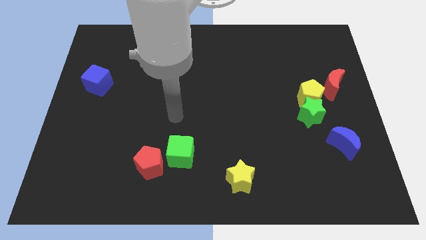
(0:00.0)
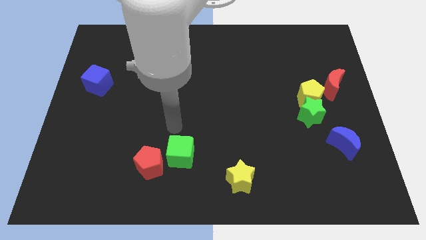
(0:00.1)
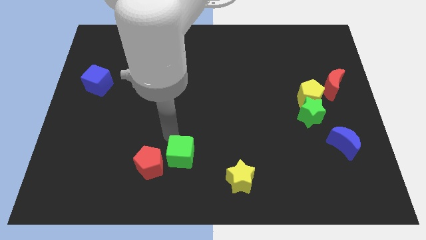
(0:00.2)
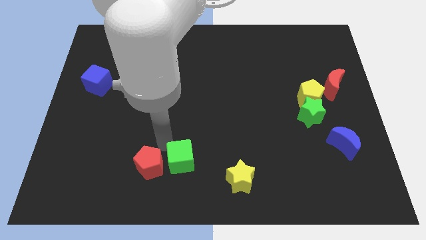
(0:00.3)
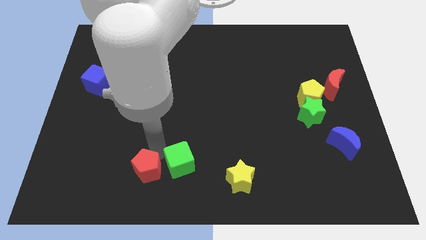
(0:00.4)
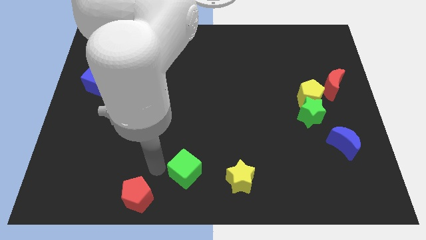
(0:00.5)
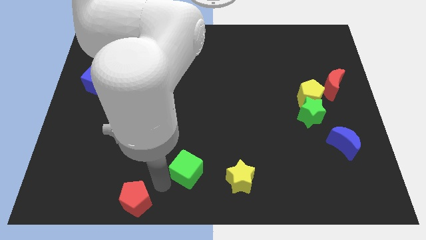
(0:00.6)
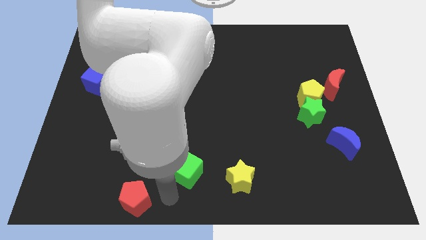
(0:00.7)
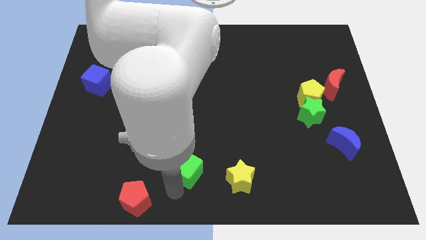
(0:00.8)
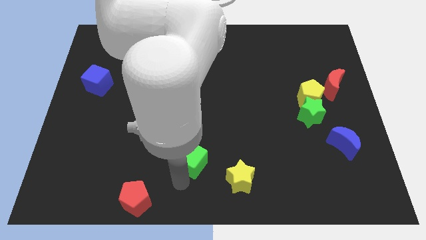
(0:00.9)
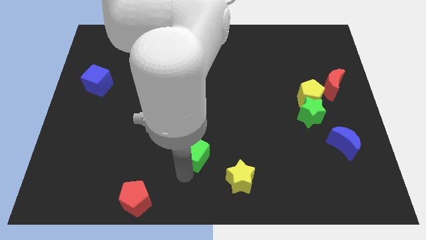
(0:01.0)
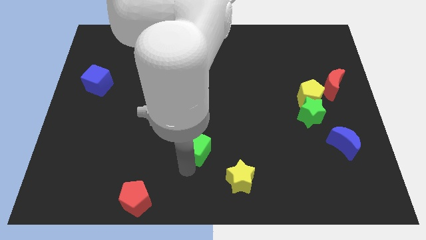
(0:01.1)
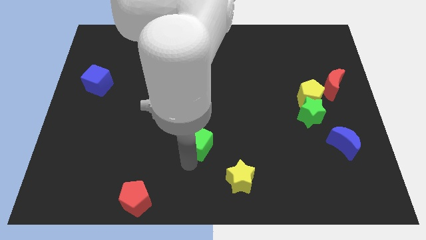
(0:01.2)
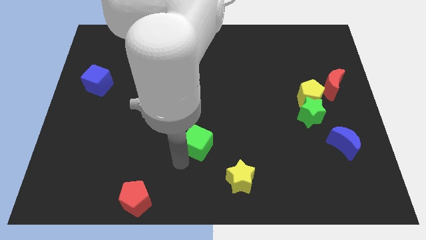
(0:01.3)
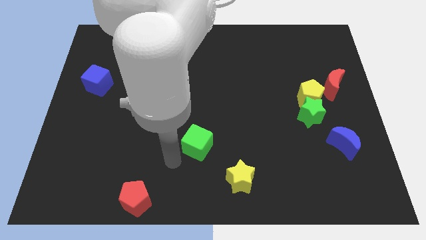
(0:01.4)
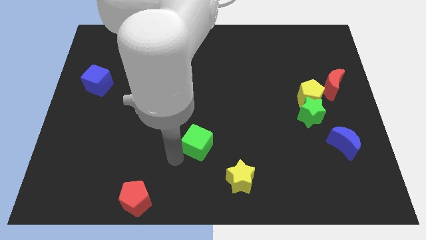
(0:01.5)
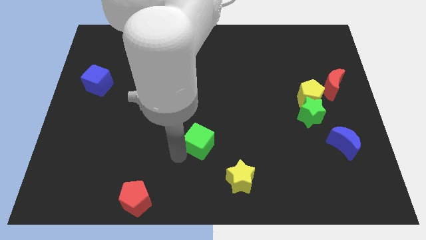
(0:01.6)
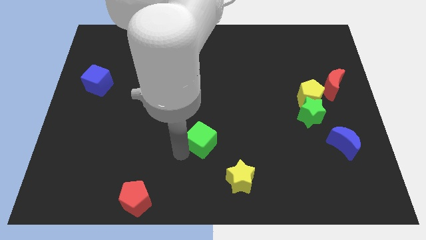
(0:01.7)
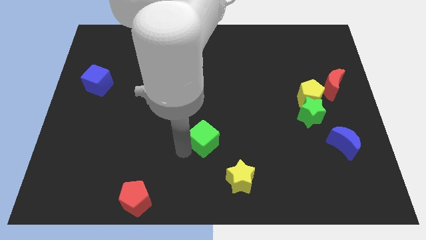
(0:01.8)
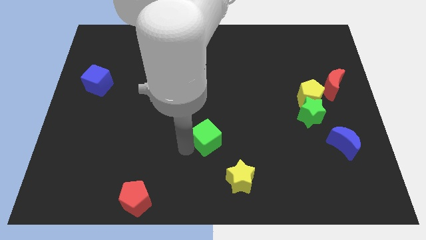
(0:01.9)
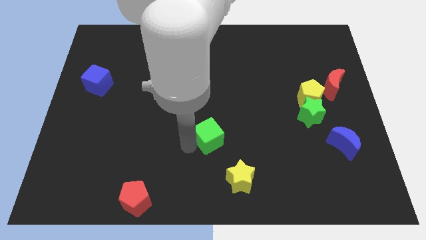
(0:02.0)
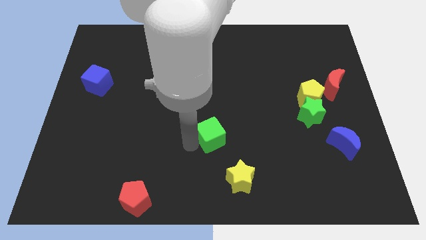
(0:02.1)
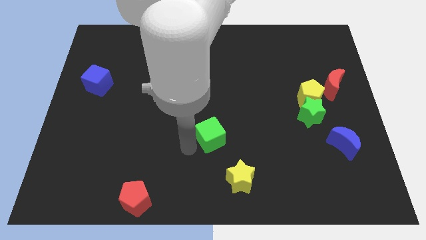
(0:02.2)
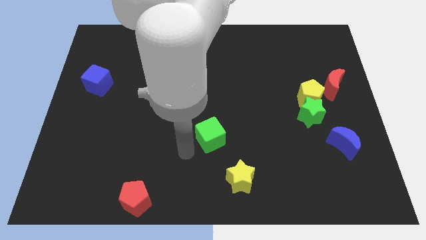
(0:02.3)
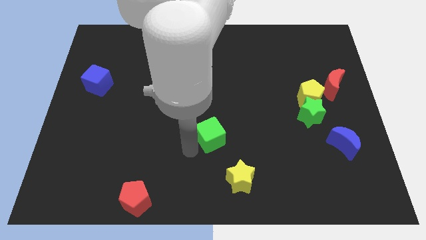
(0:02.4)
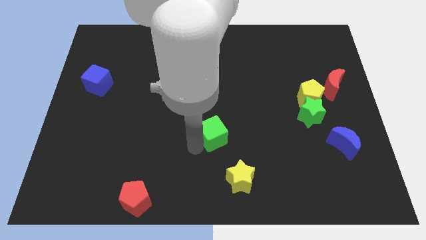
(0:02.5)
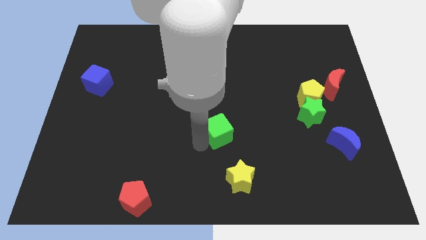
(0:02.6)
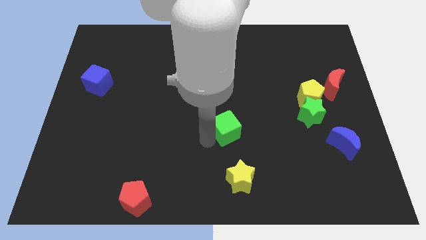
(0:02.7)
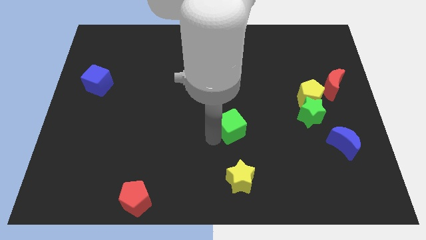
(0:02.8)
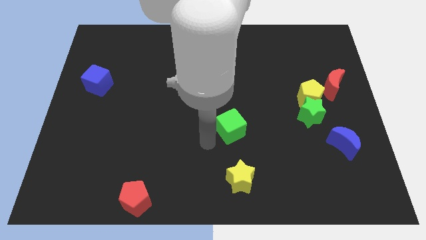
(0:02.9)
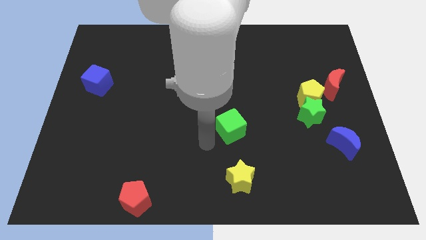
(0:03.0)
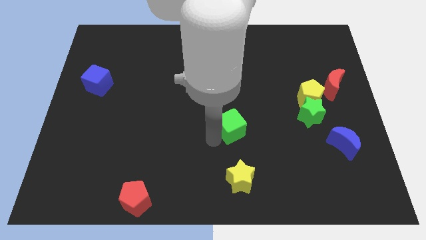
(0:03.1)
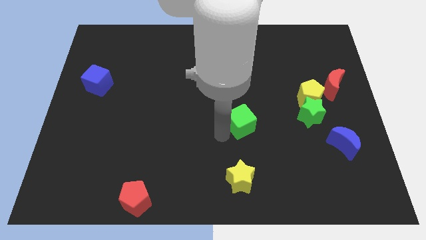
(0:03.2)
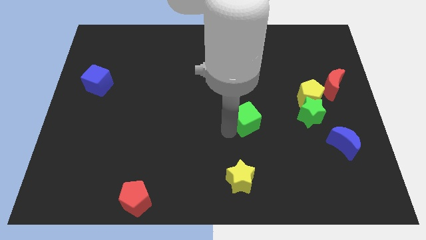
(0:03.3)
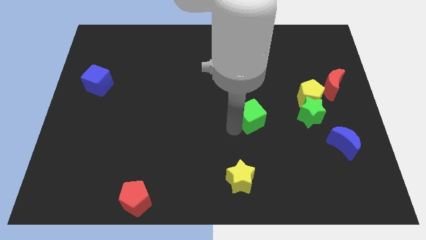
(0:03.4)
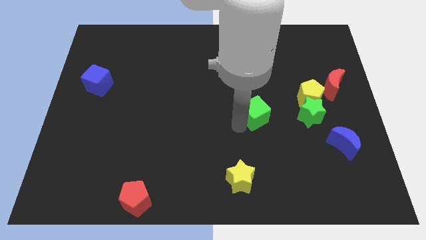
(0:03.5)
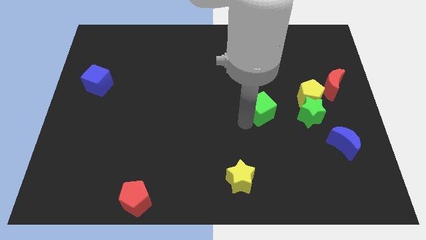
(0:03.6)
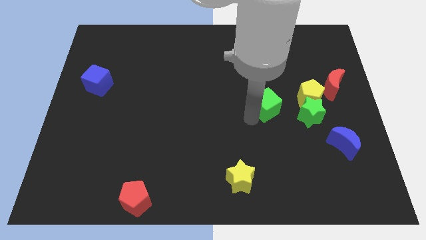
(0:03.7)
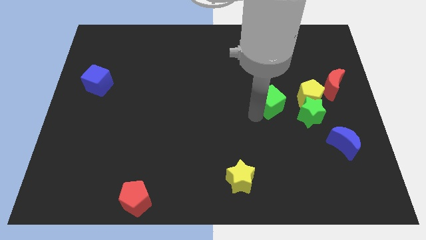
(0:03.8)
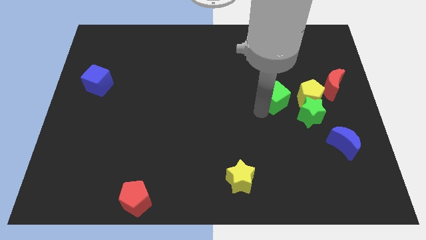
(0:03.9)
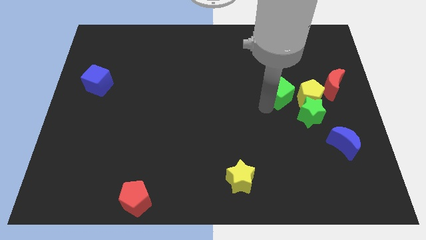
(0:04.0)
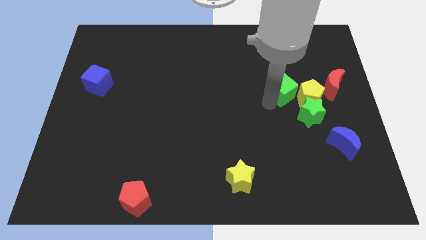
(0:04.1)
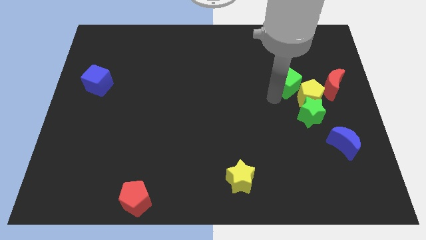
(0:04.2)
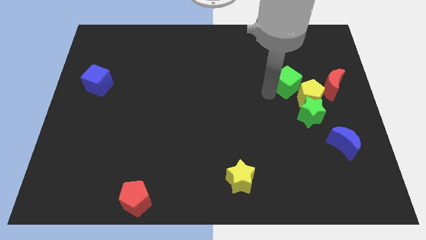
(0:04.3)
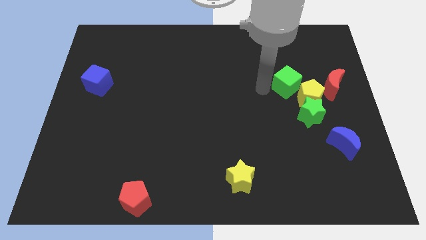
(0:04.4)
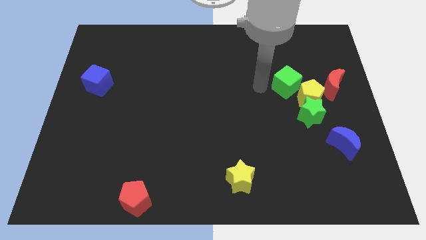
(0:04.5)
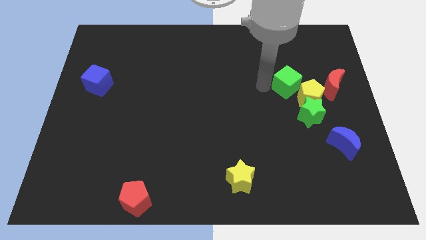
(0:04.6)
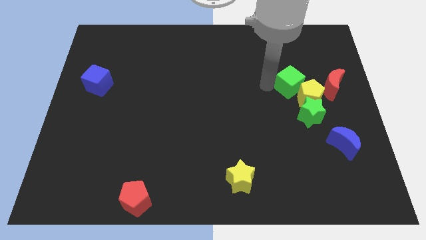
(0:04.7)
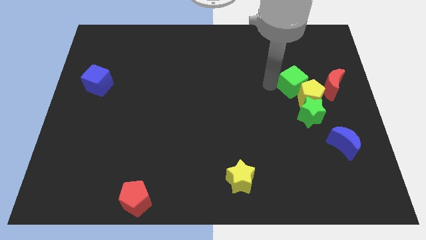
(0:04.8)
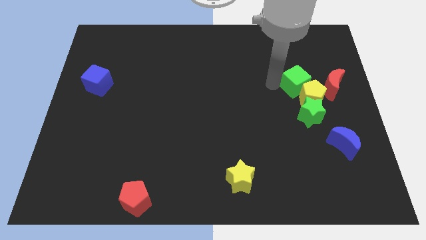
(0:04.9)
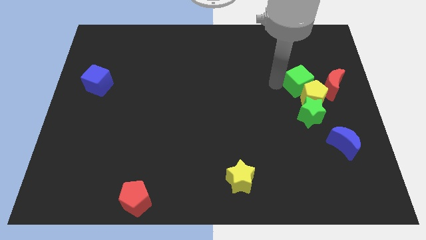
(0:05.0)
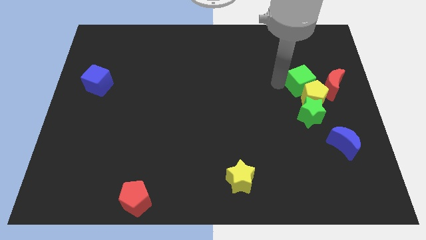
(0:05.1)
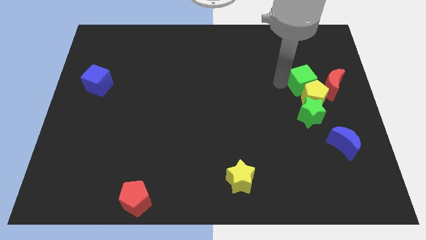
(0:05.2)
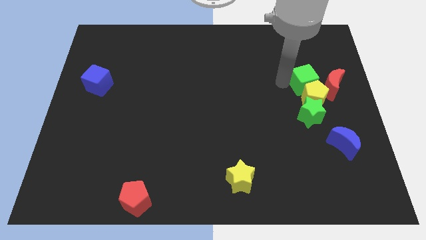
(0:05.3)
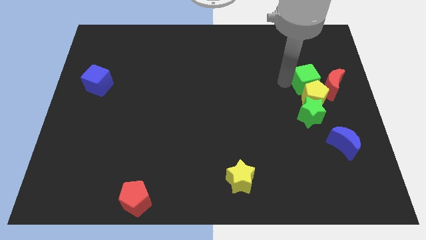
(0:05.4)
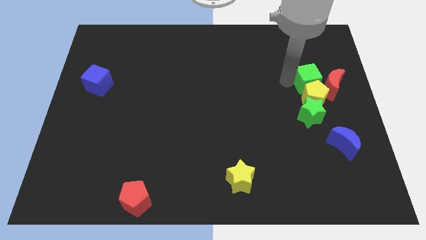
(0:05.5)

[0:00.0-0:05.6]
push the green cube close to the red moon

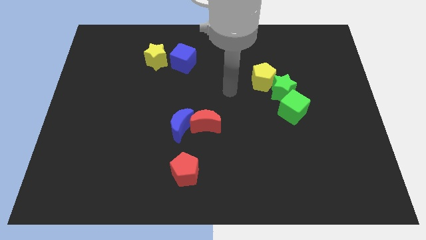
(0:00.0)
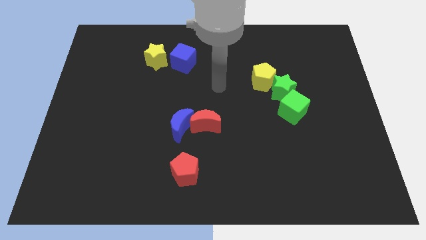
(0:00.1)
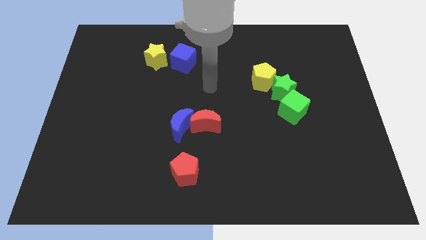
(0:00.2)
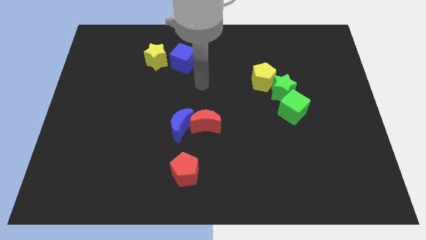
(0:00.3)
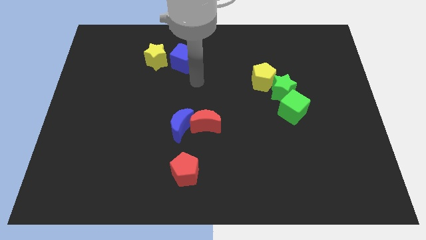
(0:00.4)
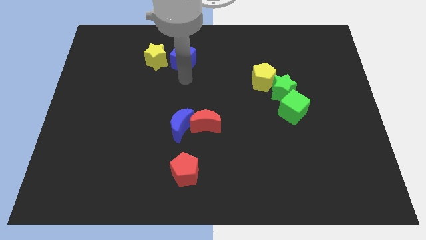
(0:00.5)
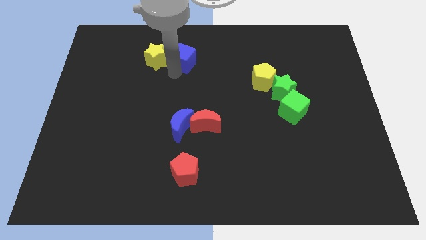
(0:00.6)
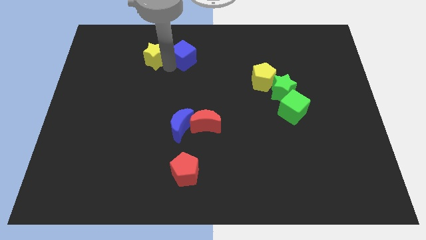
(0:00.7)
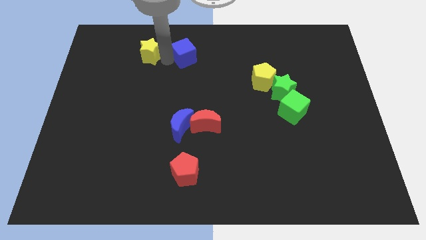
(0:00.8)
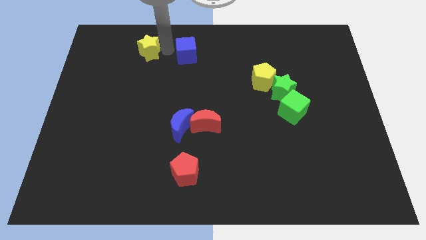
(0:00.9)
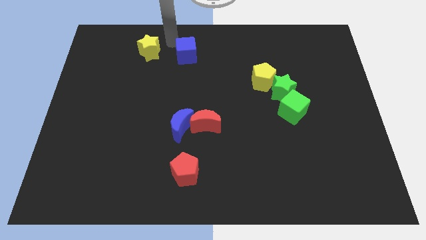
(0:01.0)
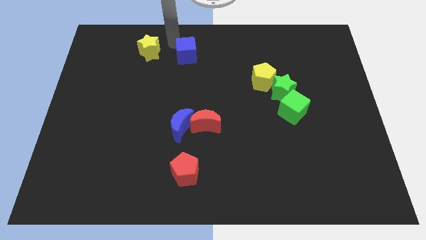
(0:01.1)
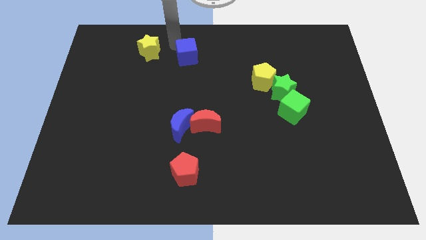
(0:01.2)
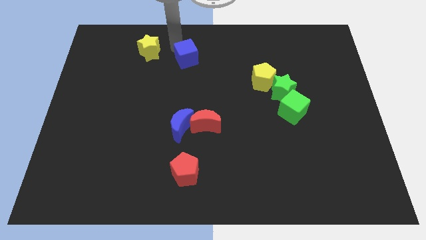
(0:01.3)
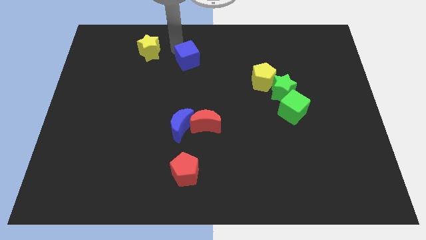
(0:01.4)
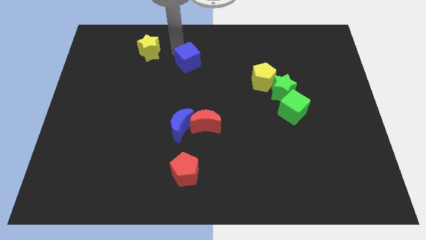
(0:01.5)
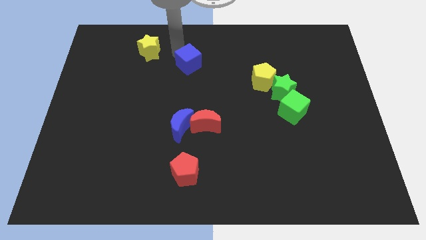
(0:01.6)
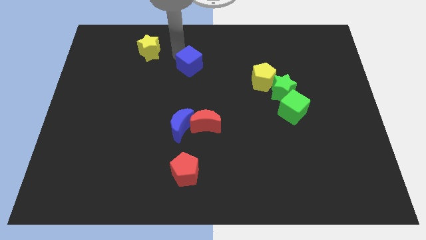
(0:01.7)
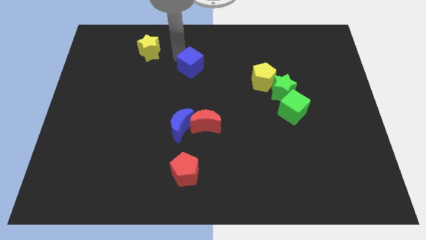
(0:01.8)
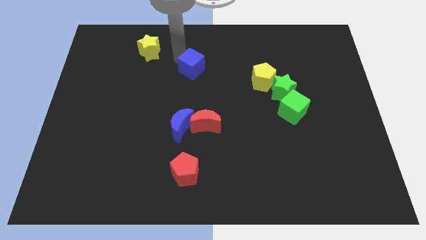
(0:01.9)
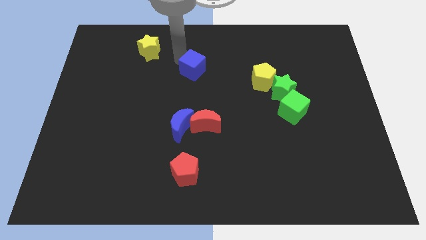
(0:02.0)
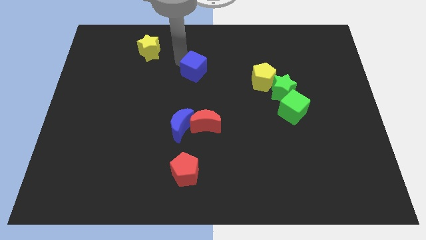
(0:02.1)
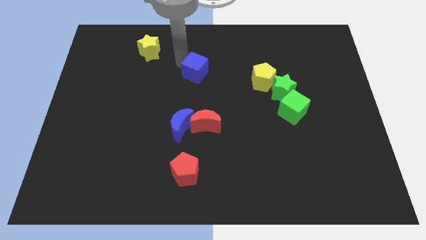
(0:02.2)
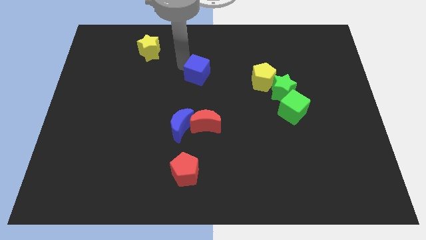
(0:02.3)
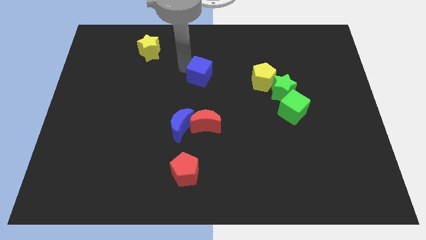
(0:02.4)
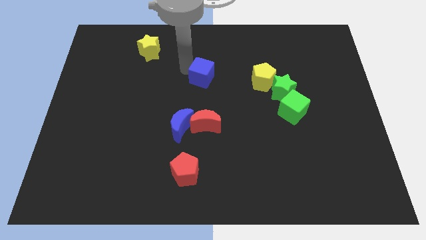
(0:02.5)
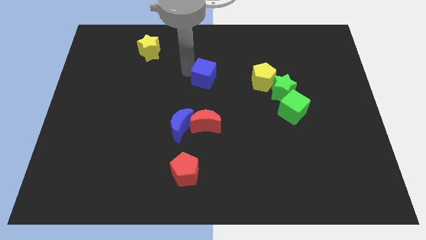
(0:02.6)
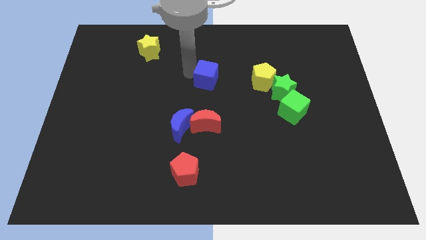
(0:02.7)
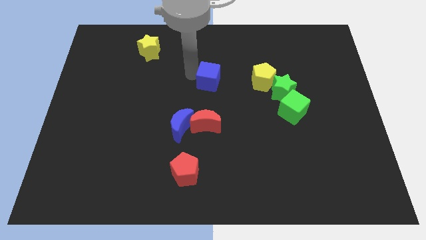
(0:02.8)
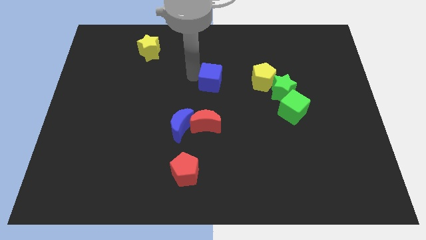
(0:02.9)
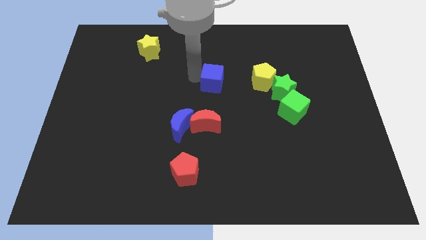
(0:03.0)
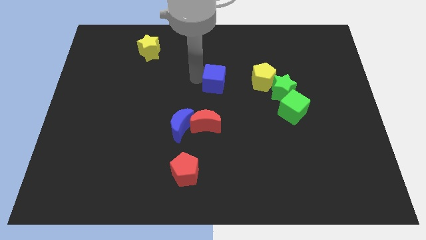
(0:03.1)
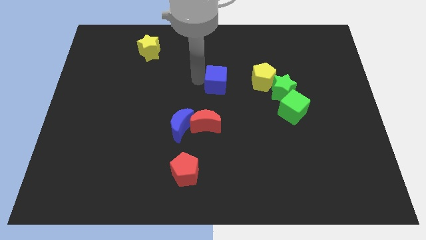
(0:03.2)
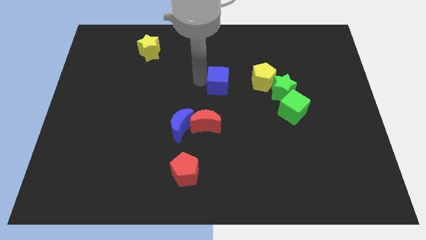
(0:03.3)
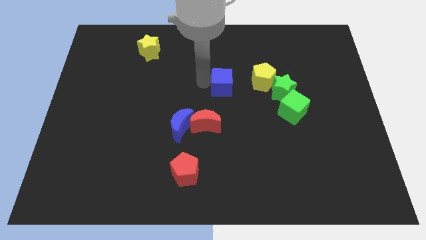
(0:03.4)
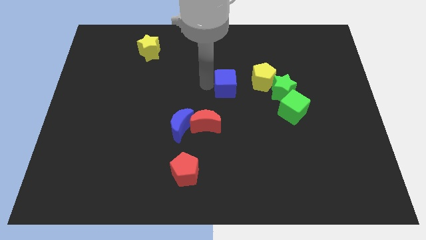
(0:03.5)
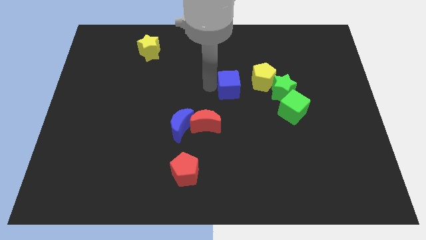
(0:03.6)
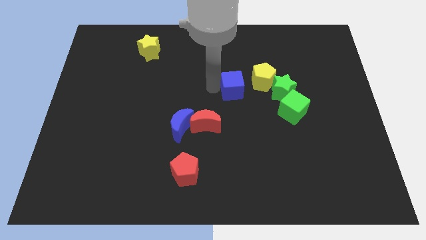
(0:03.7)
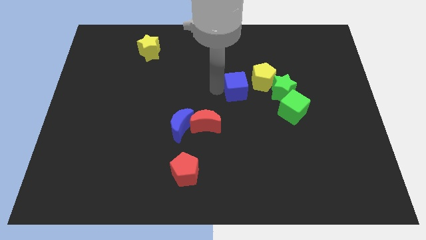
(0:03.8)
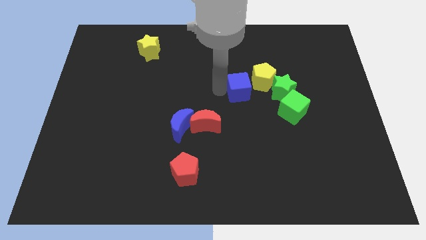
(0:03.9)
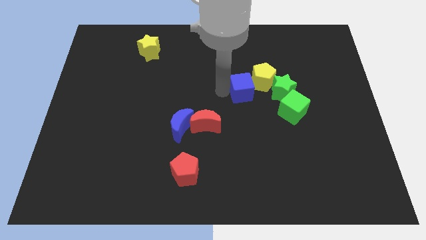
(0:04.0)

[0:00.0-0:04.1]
put the blue cube close to the yellow pentagon
